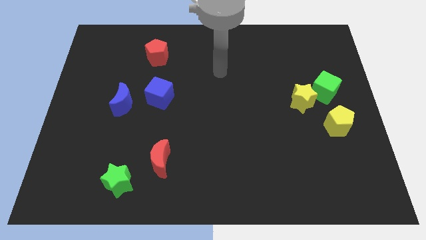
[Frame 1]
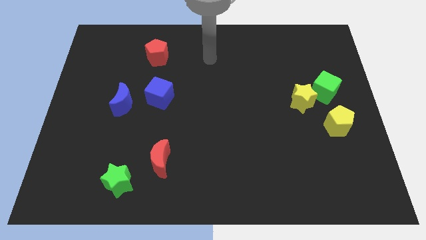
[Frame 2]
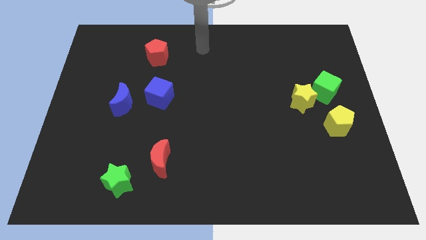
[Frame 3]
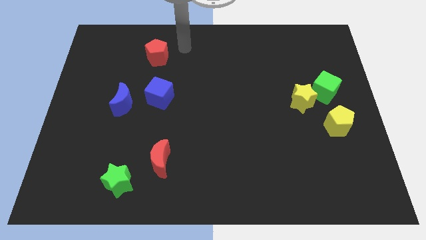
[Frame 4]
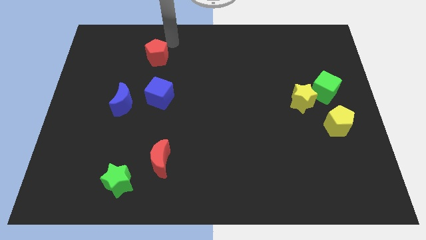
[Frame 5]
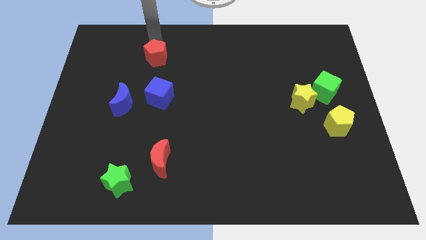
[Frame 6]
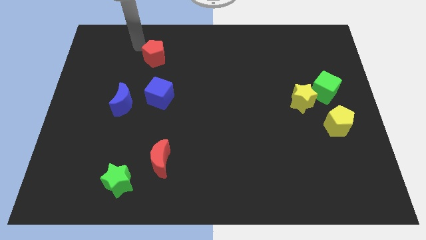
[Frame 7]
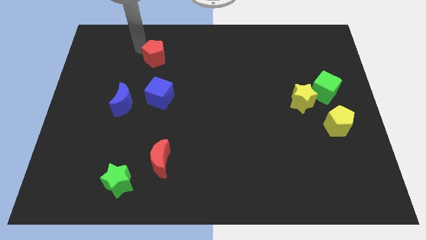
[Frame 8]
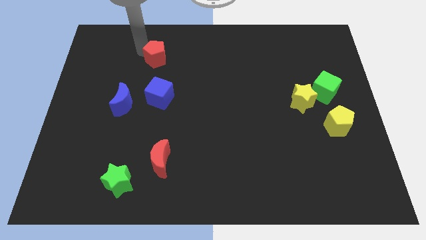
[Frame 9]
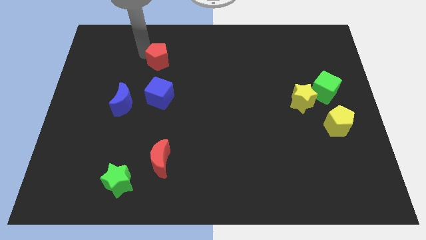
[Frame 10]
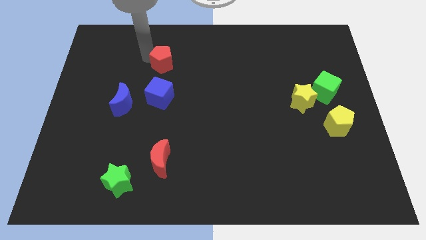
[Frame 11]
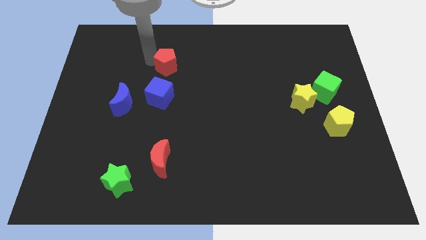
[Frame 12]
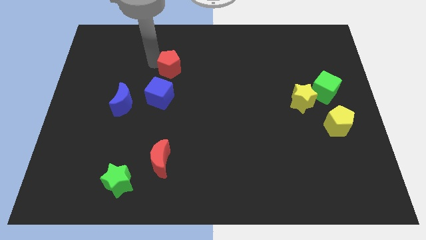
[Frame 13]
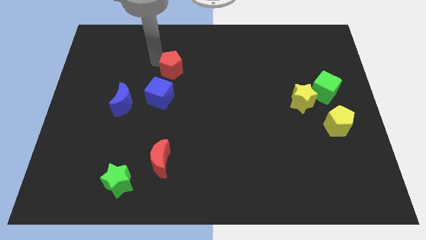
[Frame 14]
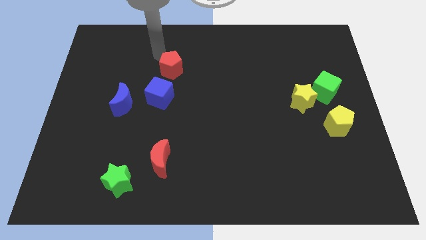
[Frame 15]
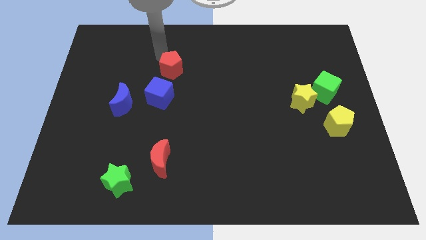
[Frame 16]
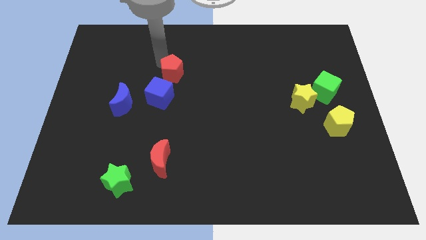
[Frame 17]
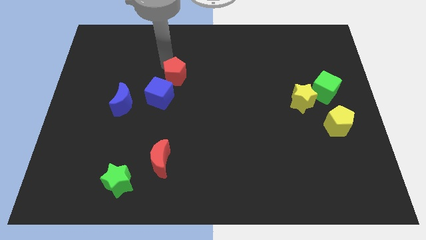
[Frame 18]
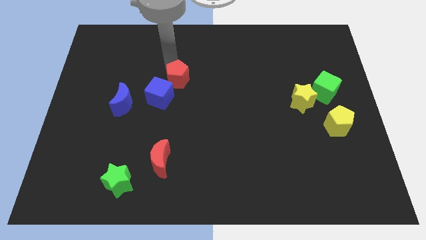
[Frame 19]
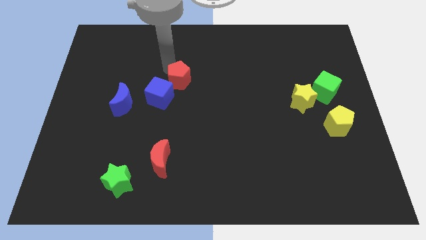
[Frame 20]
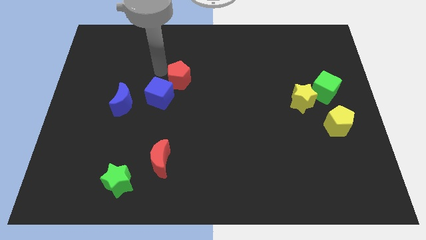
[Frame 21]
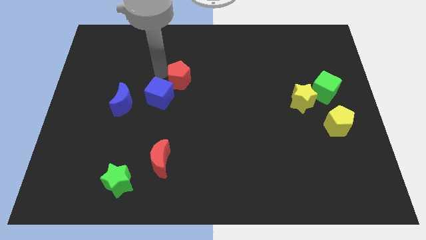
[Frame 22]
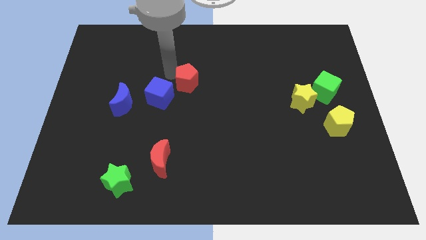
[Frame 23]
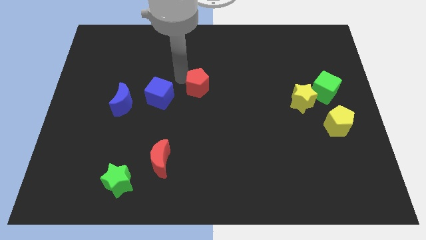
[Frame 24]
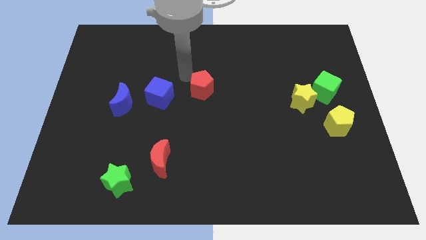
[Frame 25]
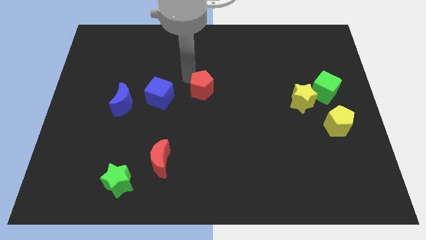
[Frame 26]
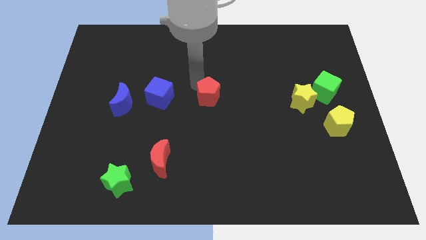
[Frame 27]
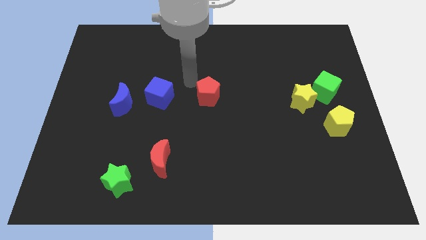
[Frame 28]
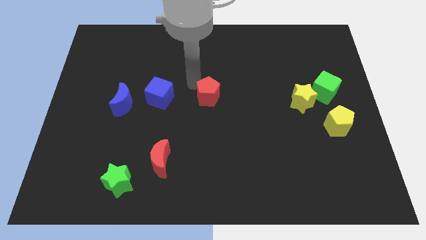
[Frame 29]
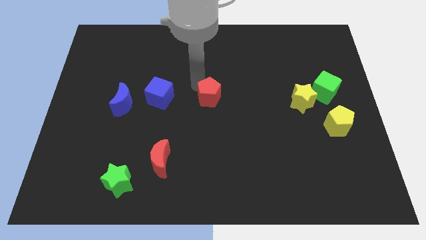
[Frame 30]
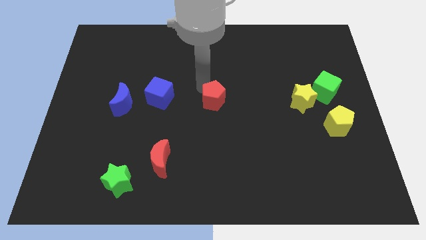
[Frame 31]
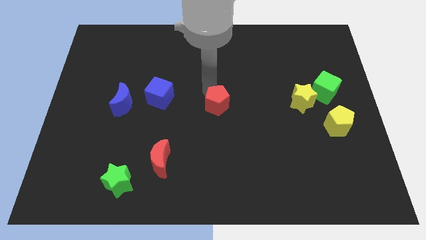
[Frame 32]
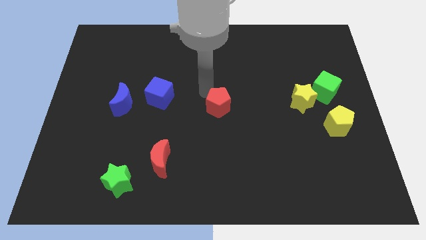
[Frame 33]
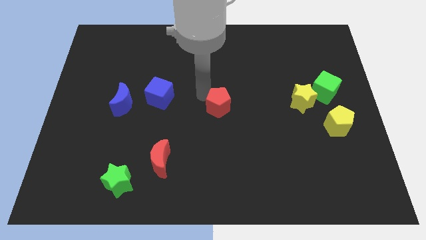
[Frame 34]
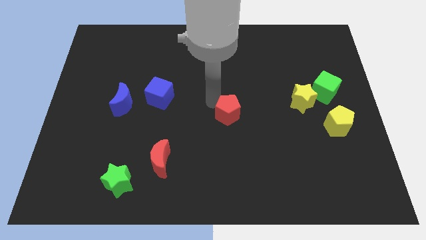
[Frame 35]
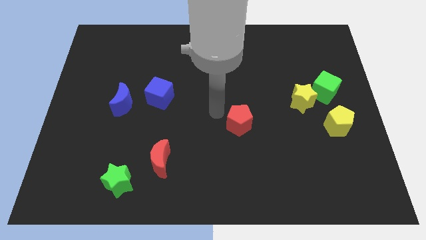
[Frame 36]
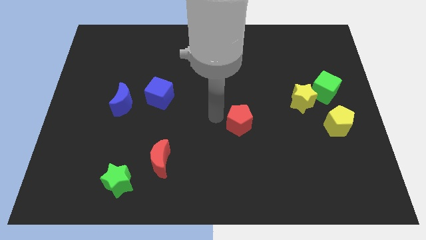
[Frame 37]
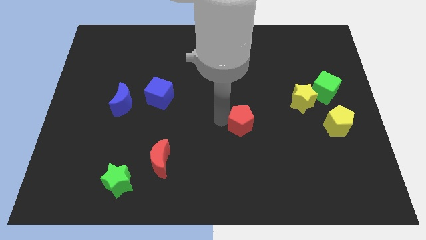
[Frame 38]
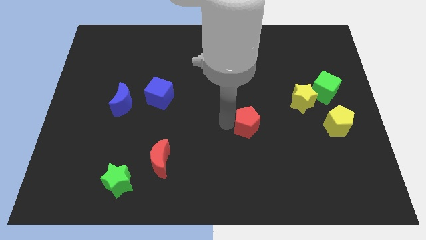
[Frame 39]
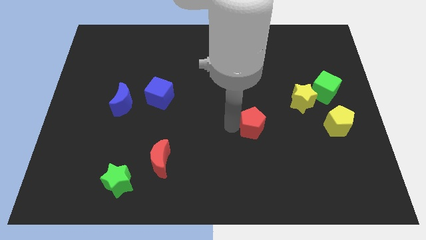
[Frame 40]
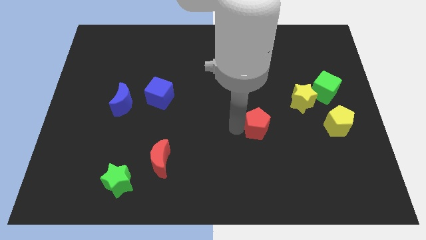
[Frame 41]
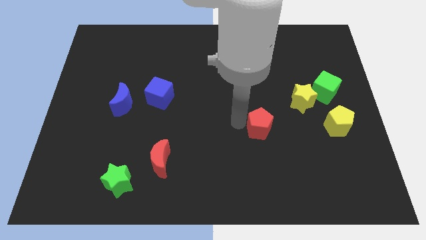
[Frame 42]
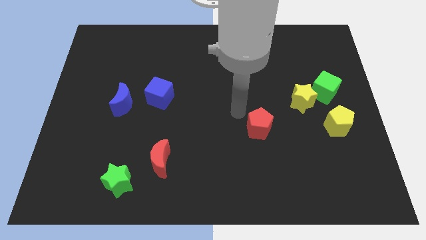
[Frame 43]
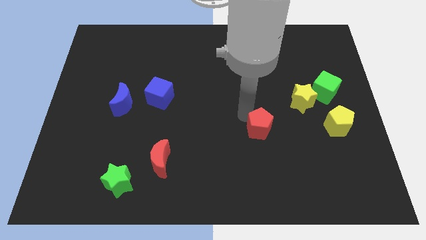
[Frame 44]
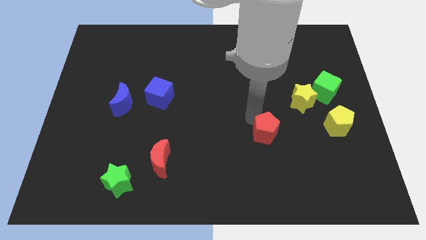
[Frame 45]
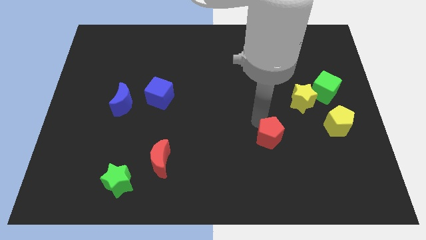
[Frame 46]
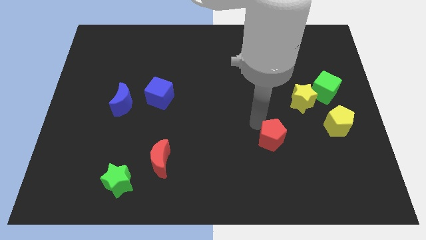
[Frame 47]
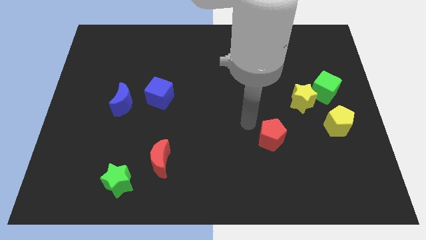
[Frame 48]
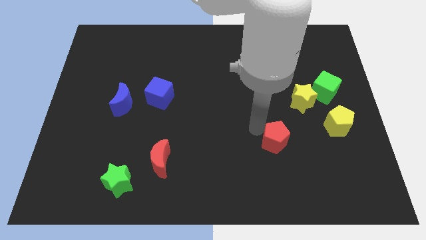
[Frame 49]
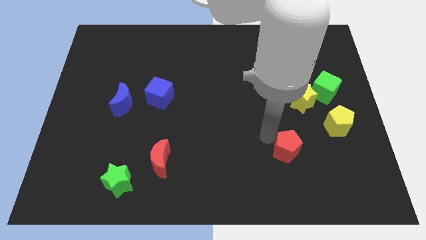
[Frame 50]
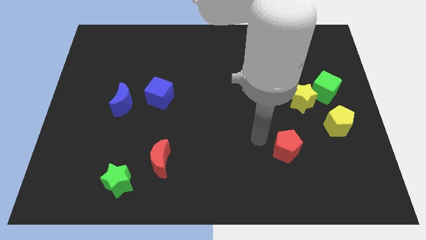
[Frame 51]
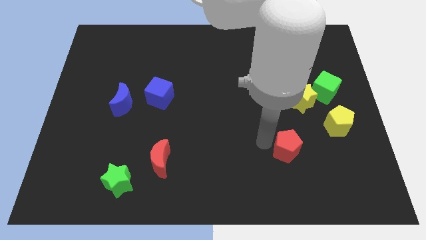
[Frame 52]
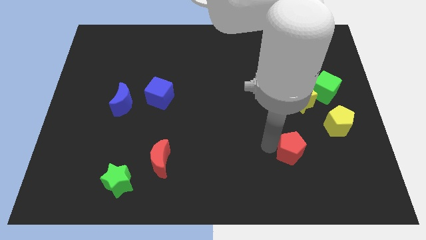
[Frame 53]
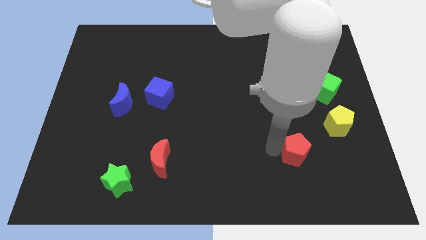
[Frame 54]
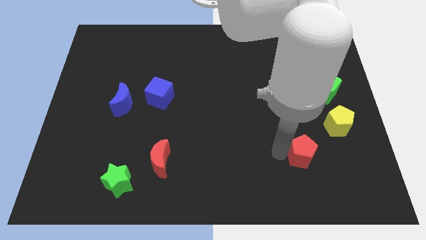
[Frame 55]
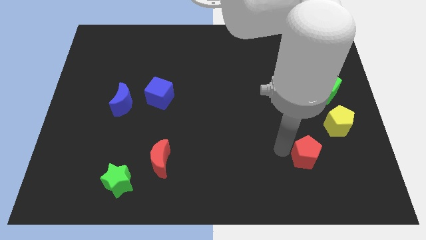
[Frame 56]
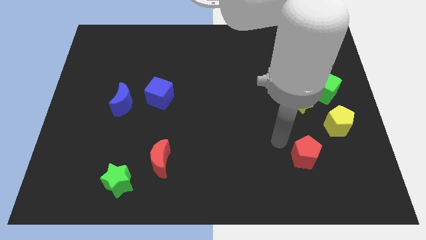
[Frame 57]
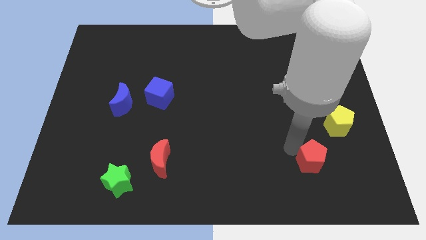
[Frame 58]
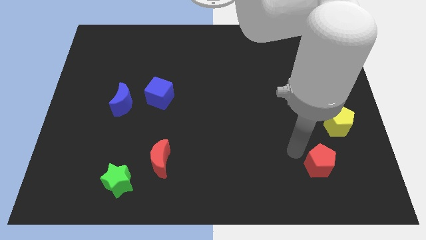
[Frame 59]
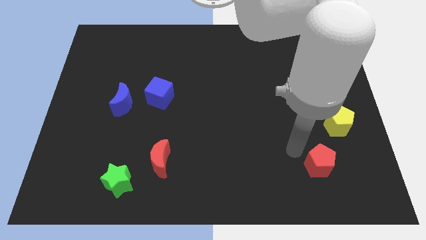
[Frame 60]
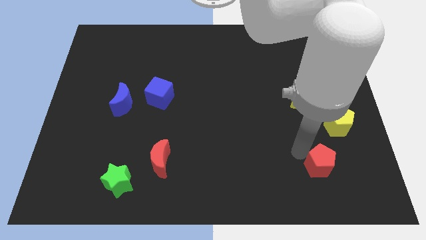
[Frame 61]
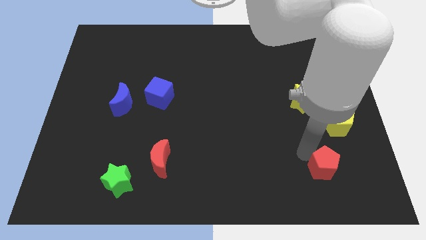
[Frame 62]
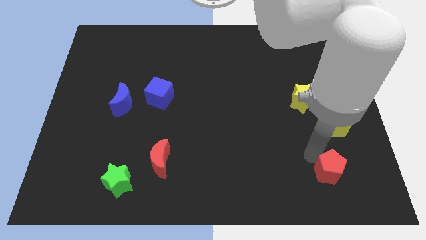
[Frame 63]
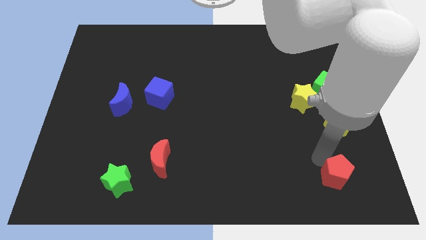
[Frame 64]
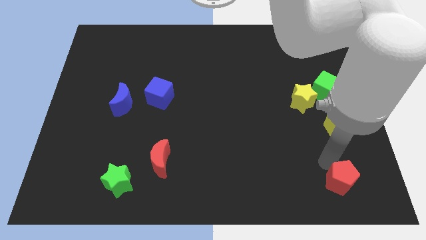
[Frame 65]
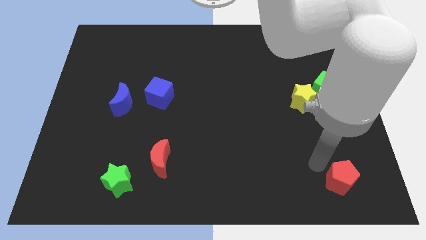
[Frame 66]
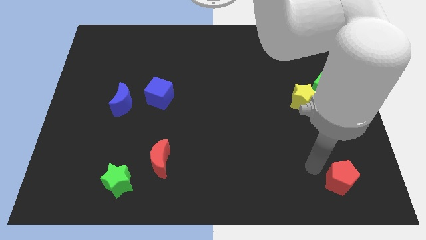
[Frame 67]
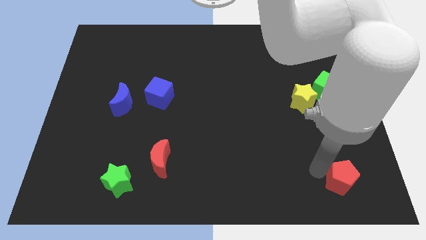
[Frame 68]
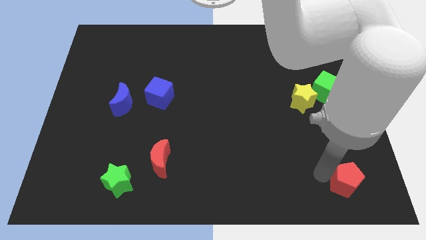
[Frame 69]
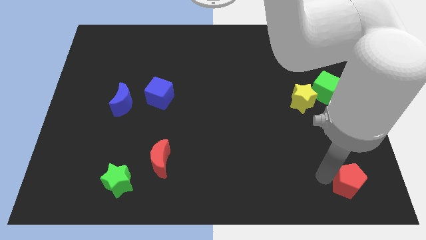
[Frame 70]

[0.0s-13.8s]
slide the red pentagon to the bottom right of the board
